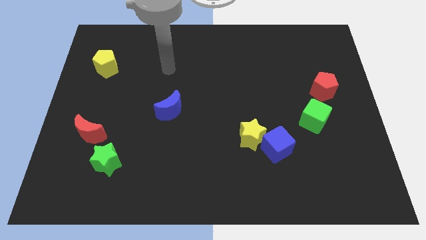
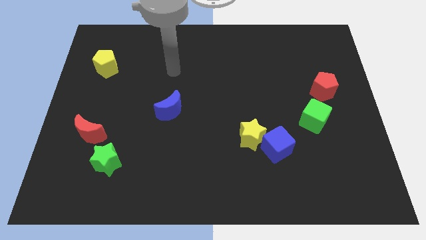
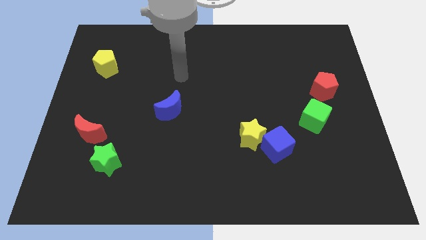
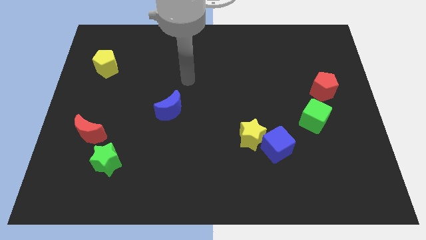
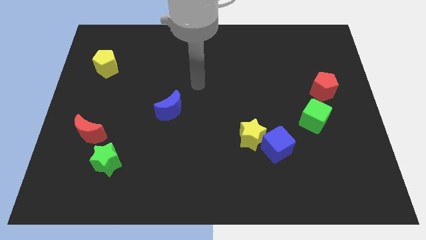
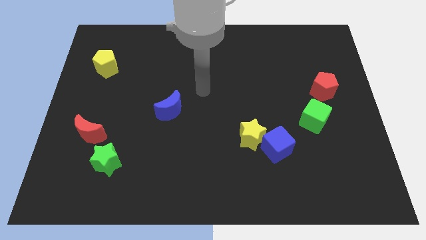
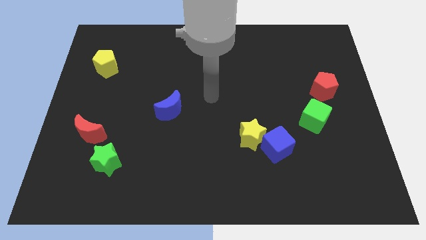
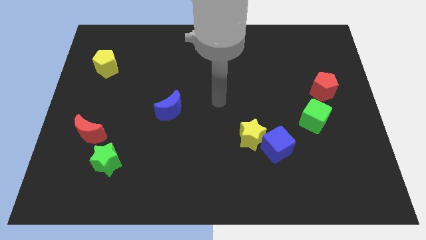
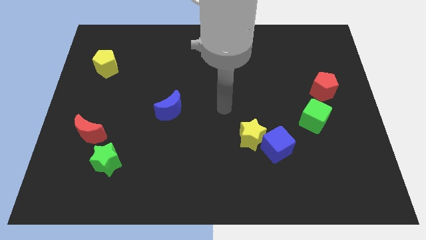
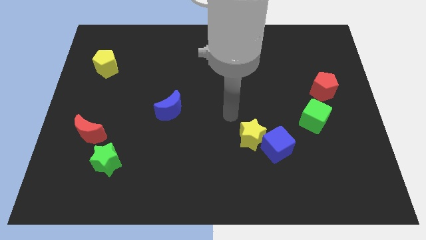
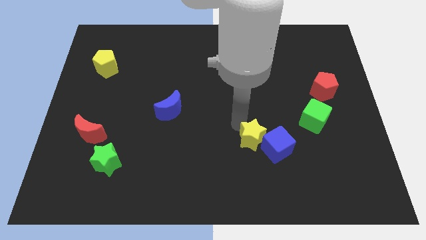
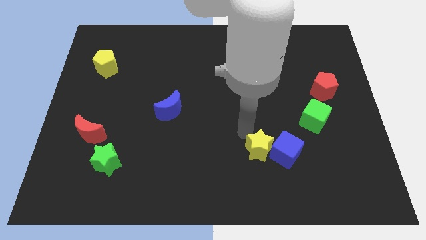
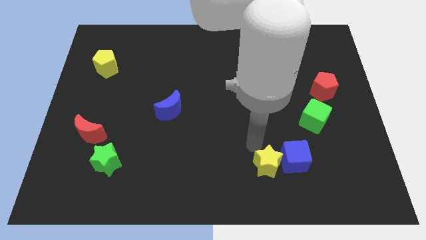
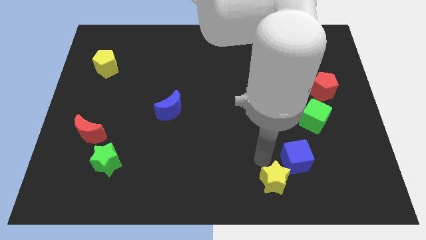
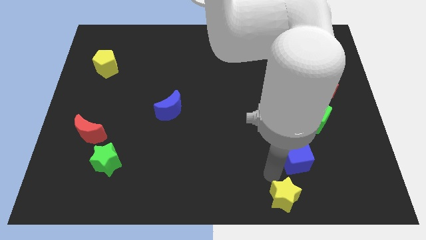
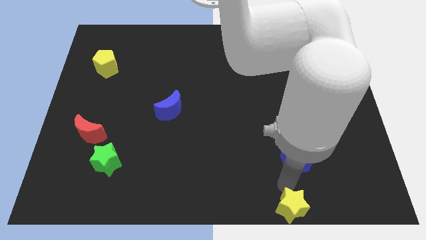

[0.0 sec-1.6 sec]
separate the blue cube from the yellow star

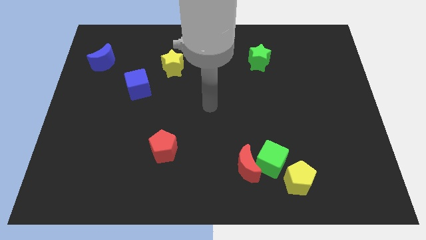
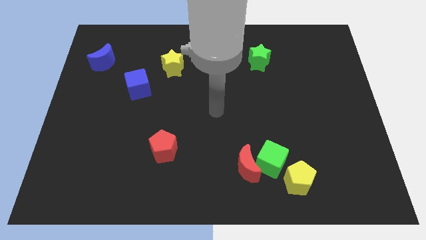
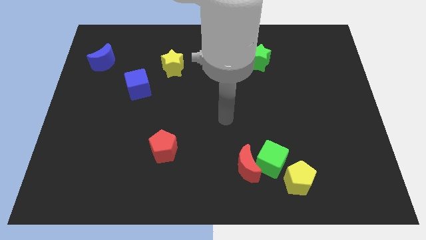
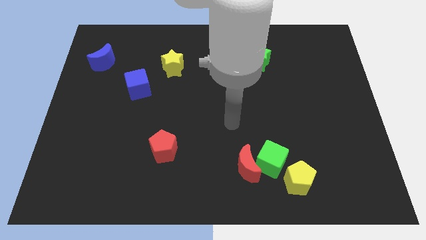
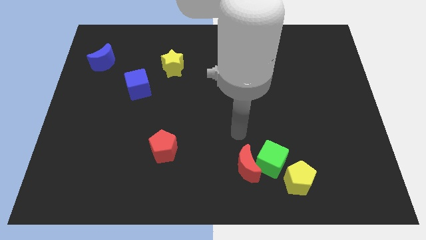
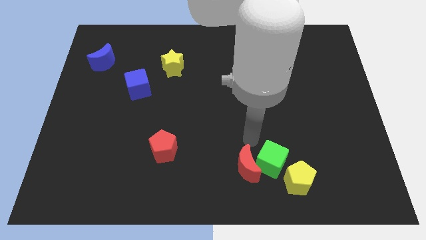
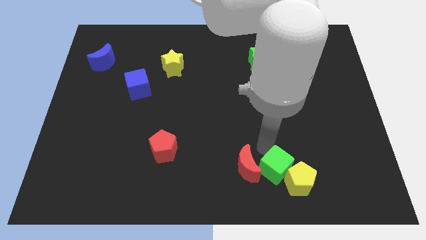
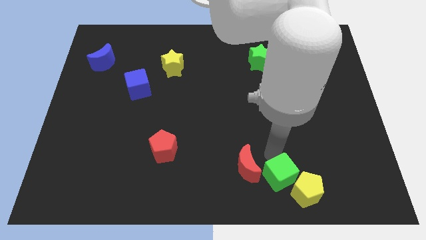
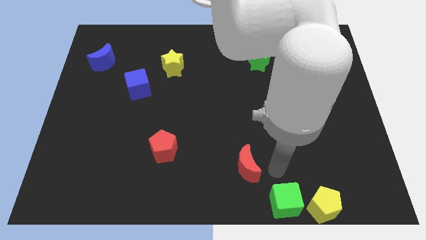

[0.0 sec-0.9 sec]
separate the red moon from the green cube

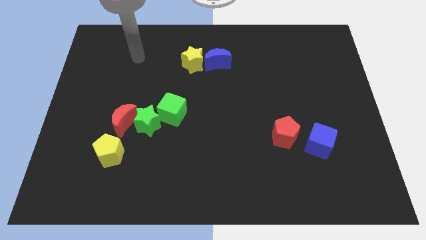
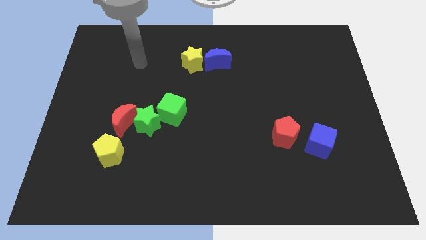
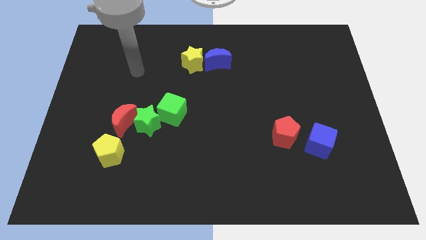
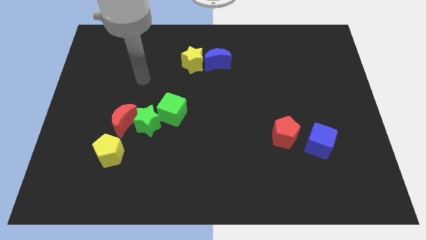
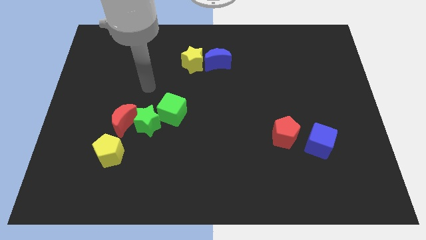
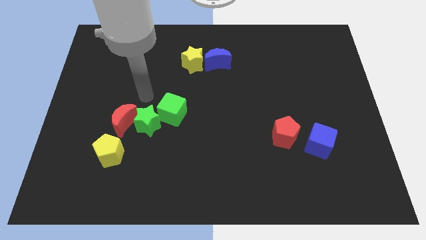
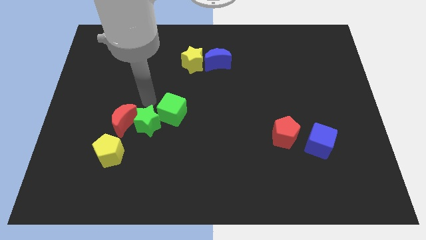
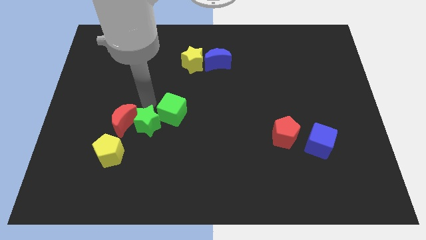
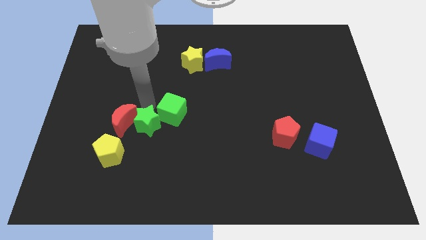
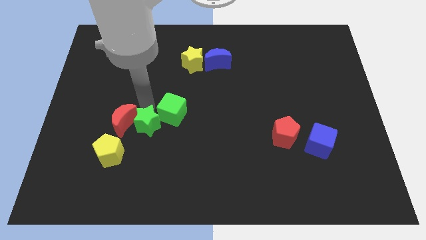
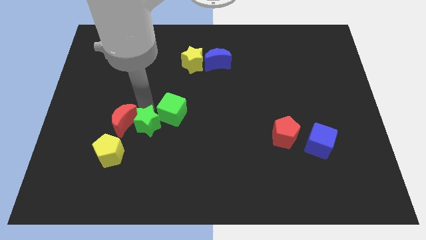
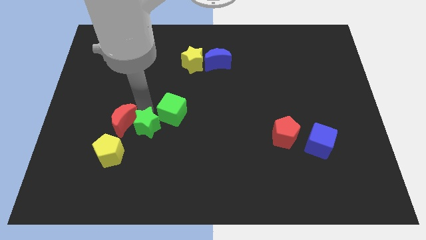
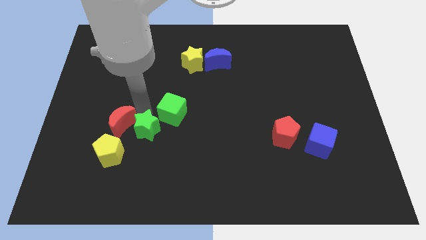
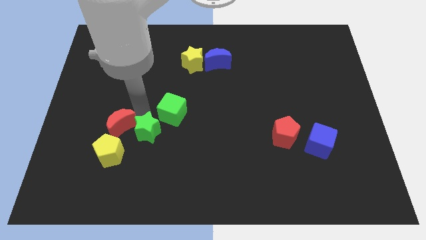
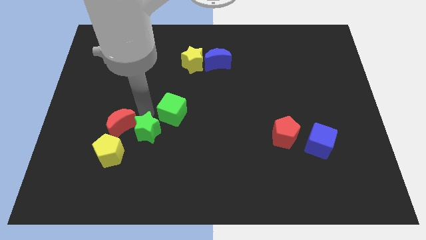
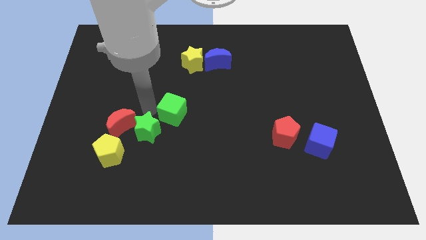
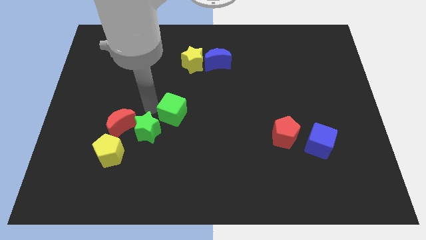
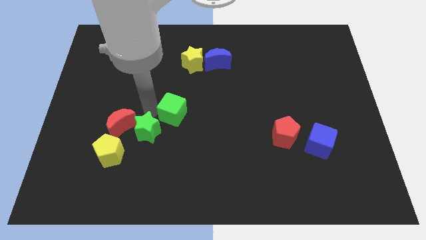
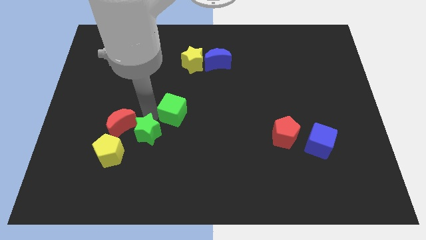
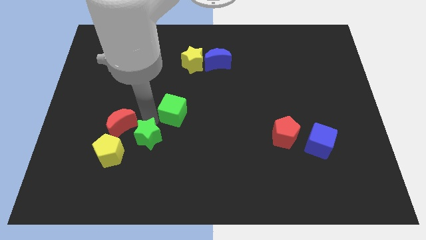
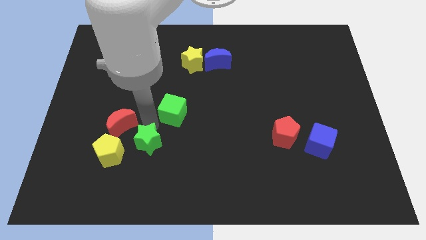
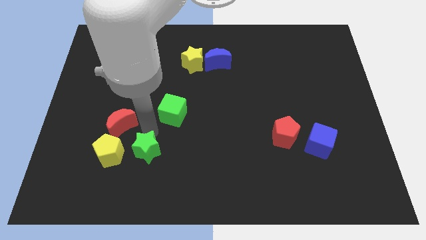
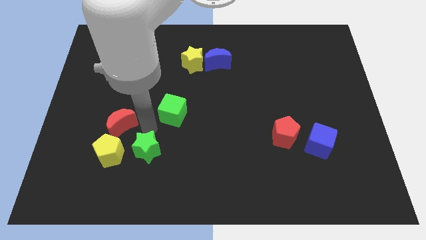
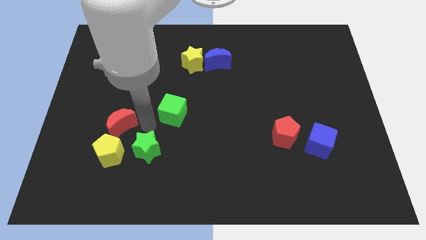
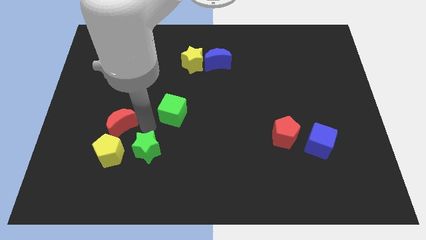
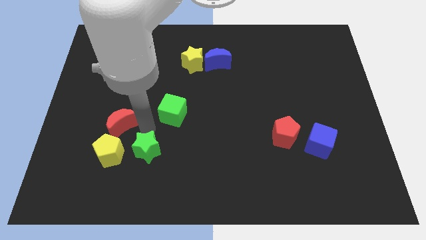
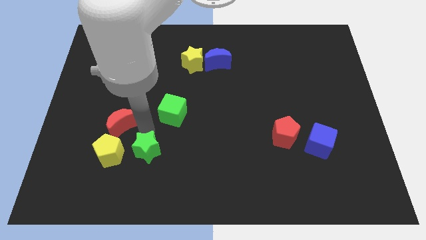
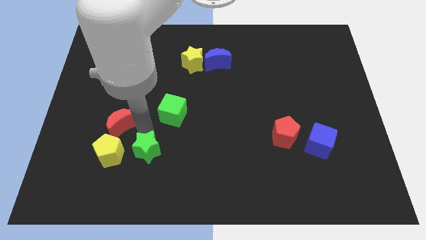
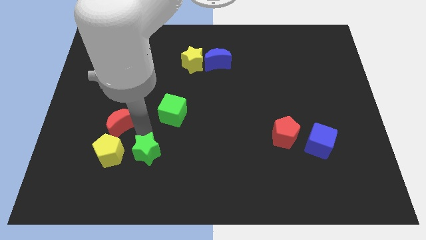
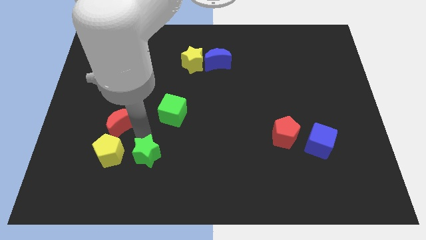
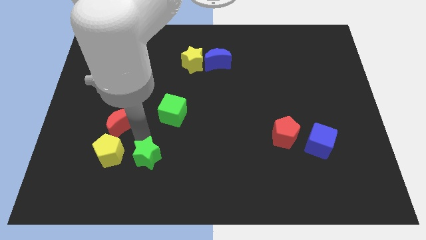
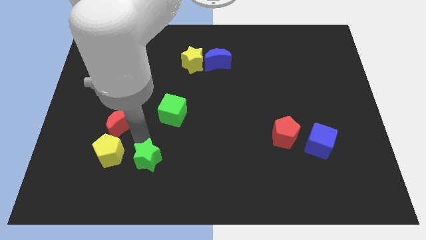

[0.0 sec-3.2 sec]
pull the green star apart from the red moon and green cube

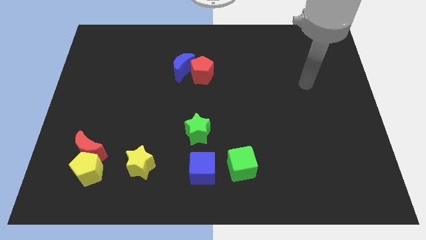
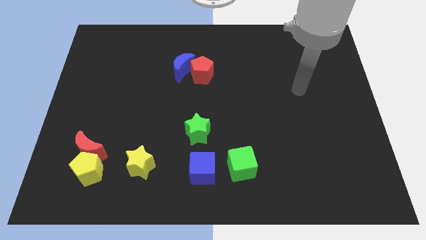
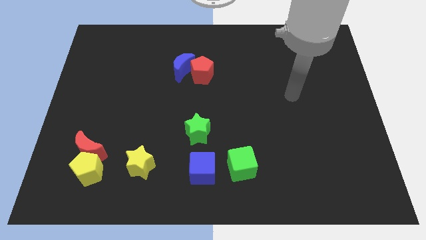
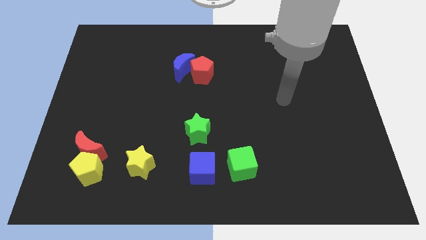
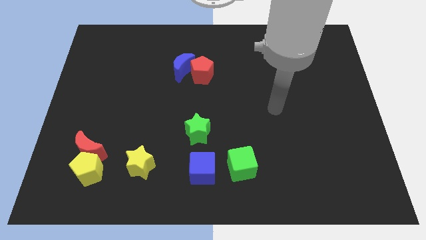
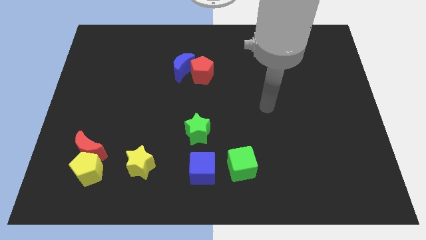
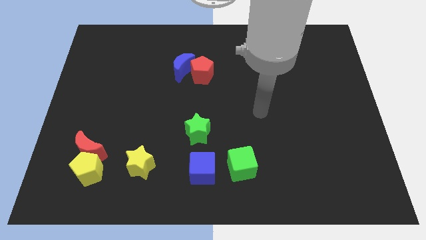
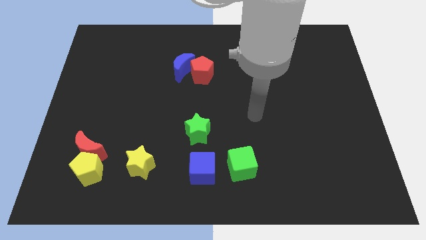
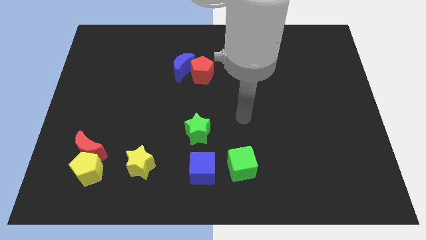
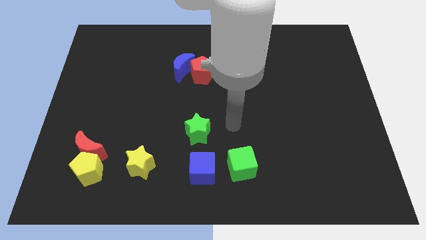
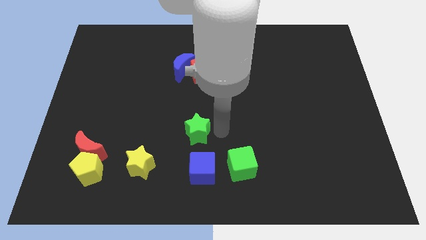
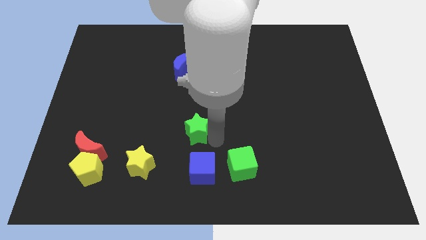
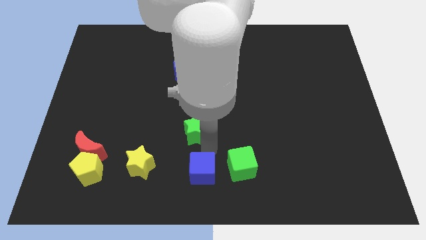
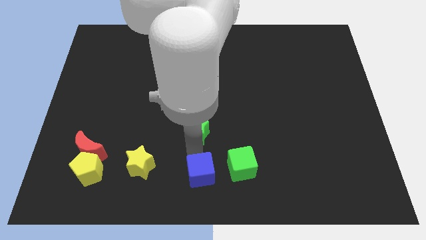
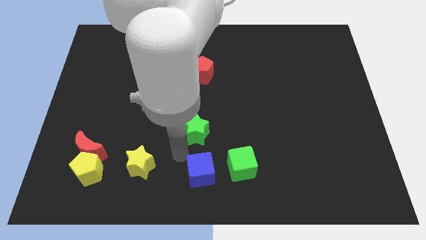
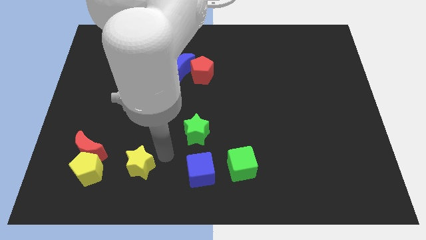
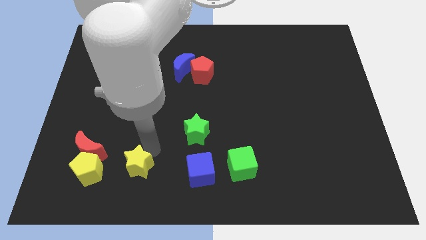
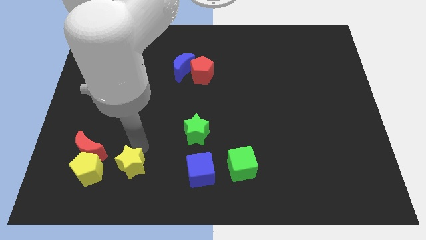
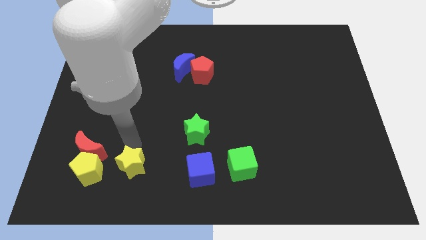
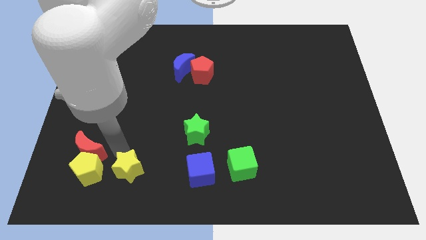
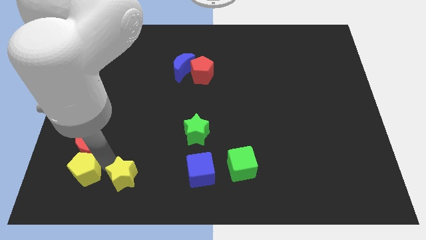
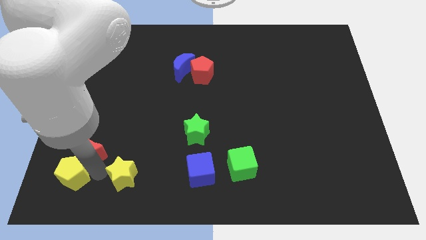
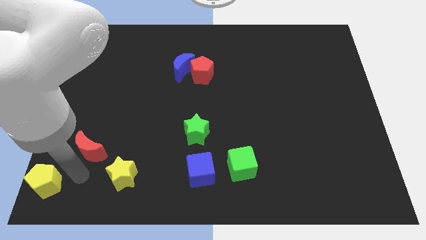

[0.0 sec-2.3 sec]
separate the red moon from the yellow pentagon

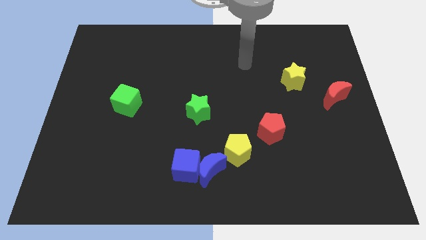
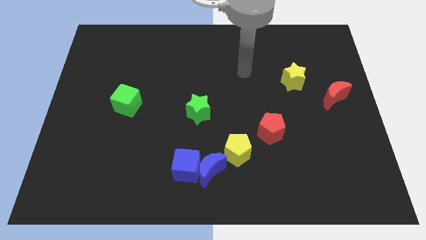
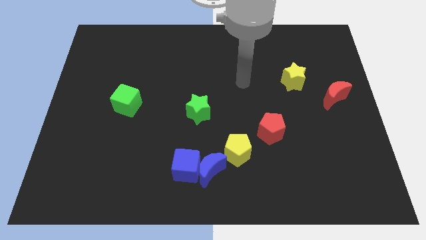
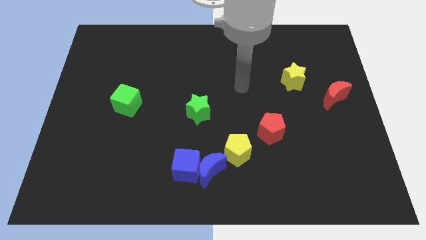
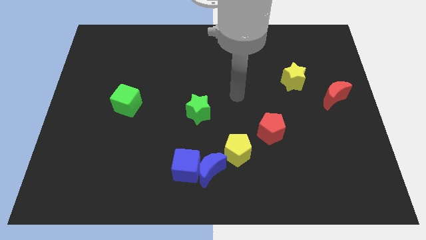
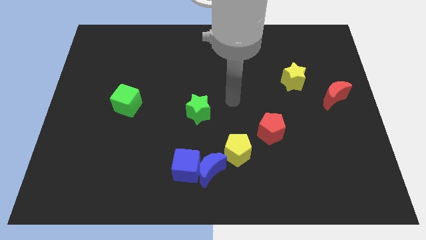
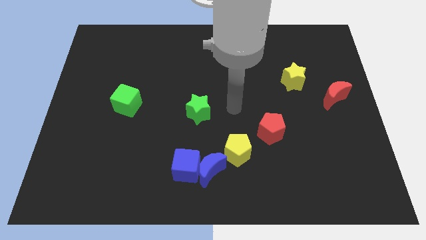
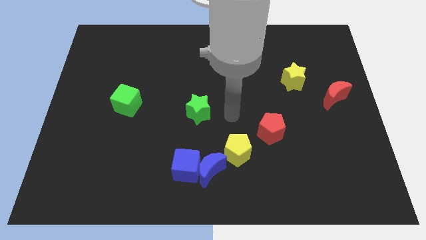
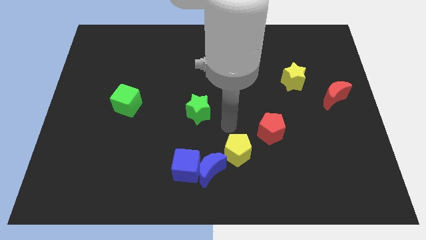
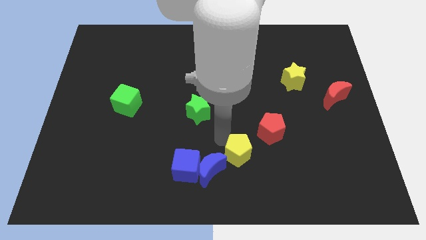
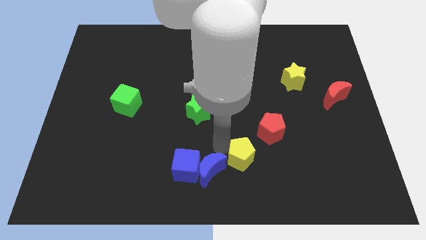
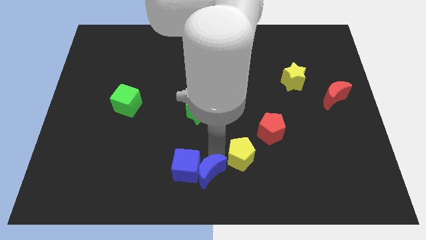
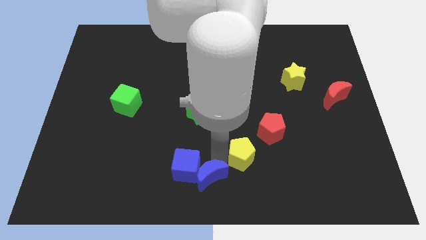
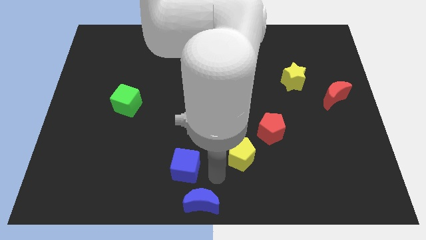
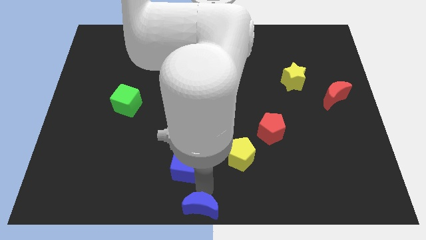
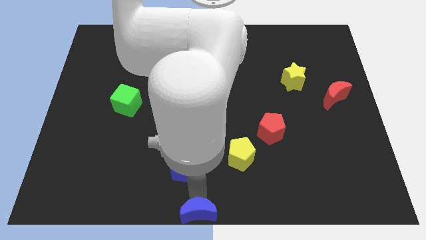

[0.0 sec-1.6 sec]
separate the blue cube from the blue moon
